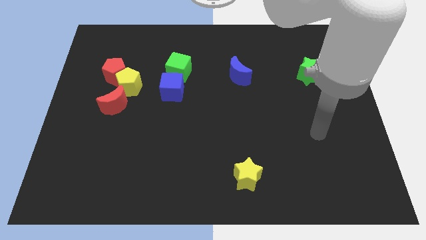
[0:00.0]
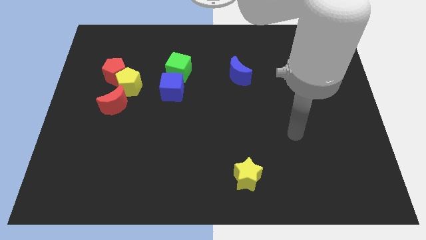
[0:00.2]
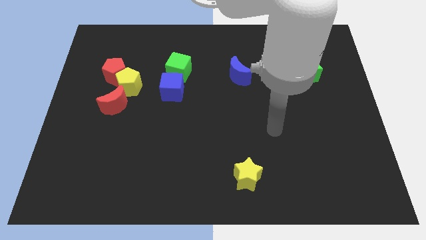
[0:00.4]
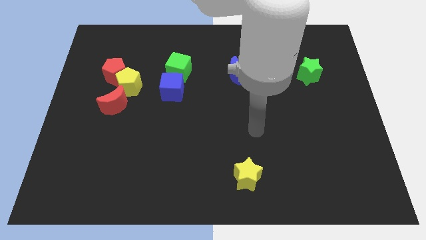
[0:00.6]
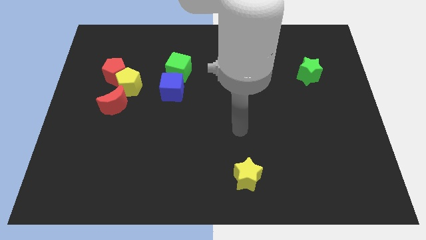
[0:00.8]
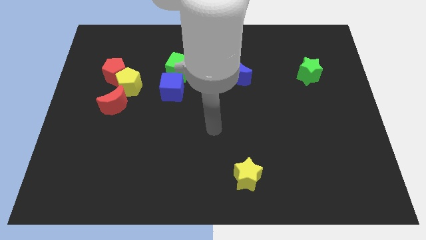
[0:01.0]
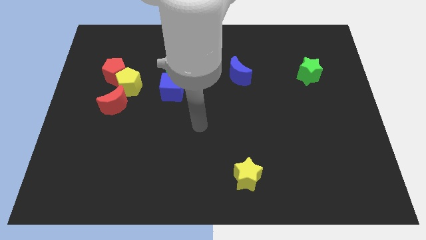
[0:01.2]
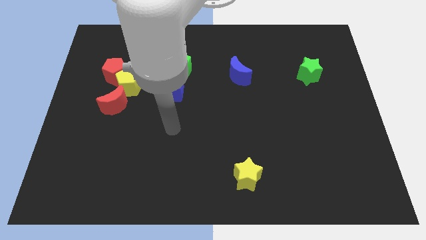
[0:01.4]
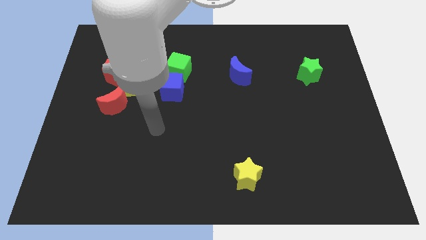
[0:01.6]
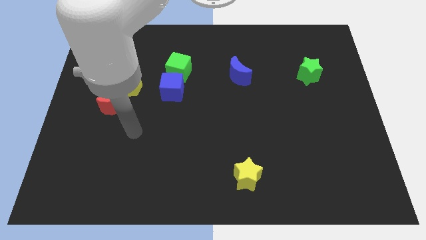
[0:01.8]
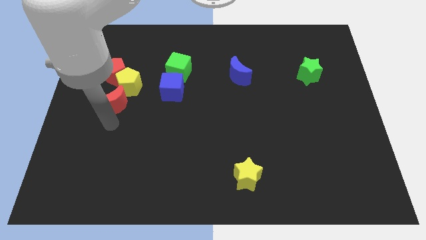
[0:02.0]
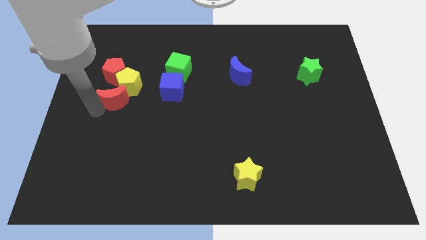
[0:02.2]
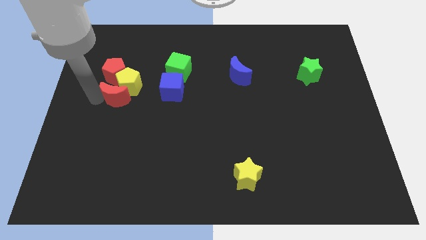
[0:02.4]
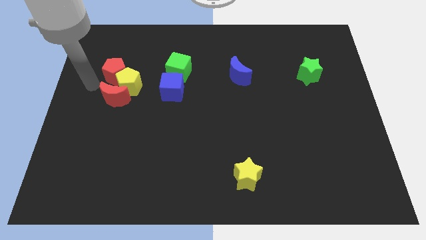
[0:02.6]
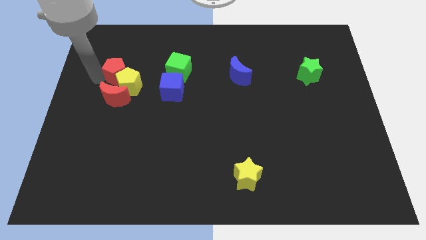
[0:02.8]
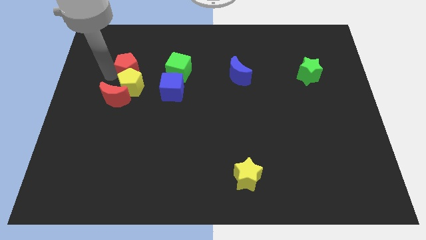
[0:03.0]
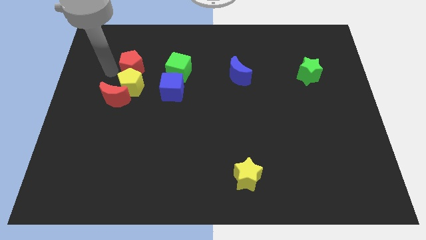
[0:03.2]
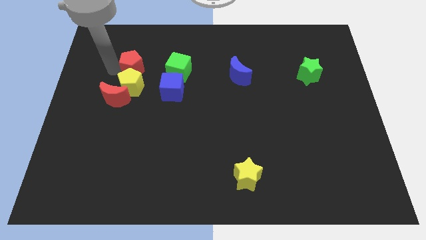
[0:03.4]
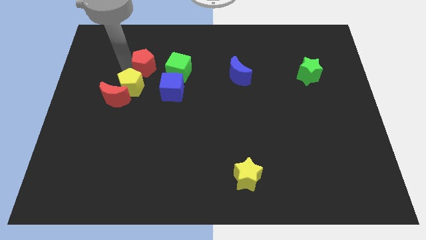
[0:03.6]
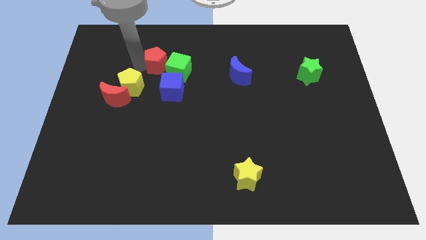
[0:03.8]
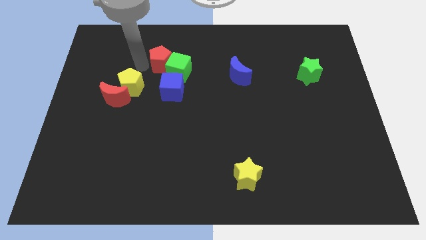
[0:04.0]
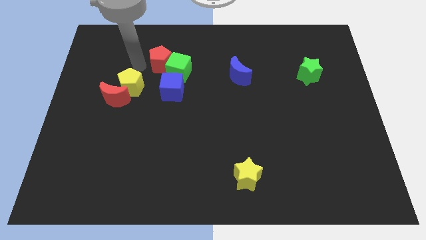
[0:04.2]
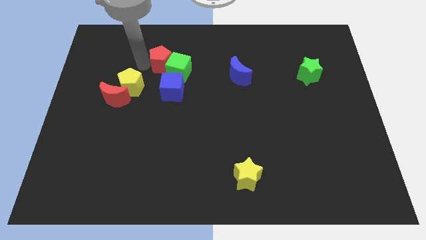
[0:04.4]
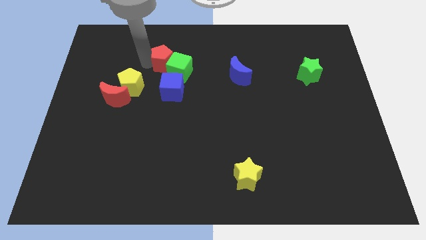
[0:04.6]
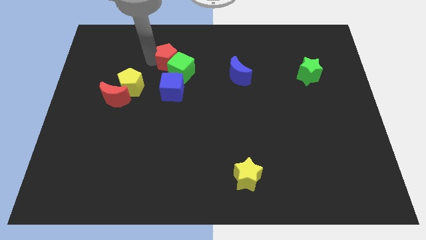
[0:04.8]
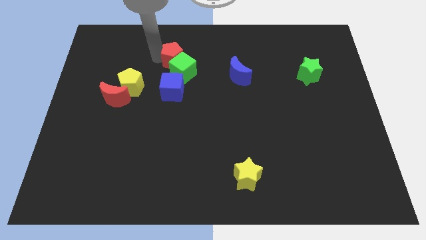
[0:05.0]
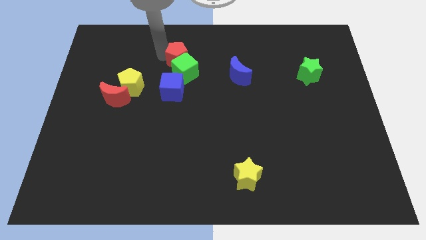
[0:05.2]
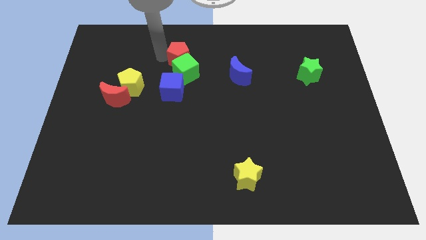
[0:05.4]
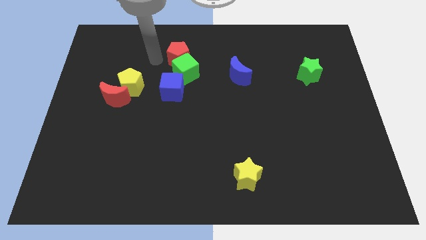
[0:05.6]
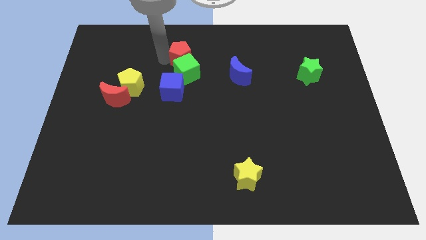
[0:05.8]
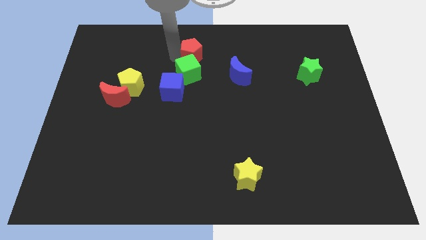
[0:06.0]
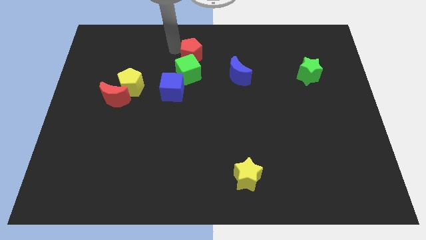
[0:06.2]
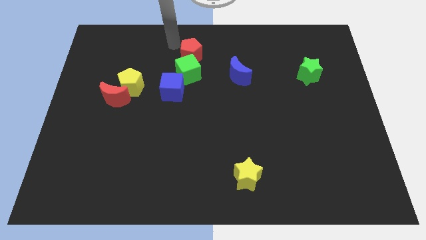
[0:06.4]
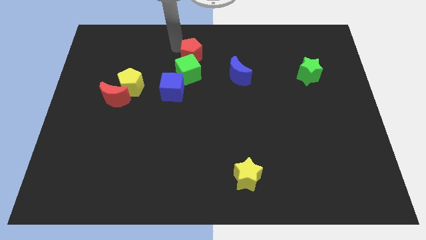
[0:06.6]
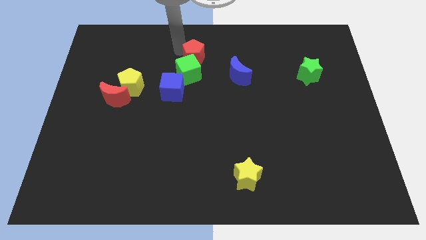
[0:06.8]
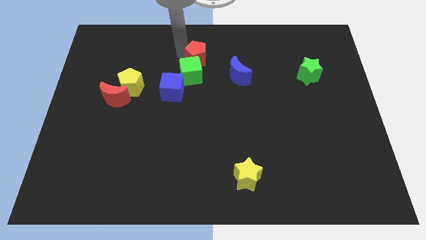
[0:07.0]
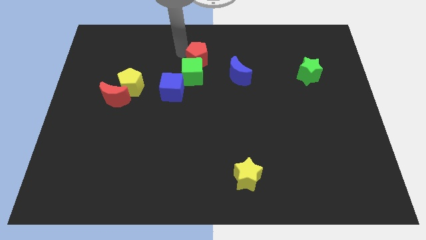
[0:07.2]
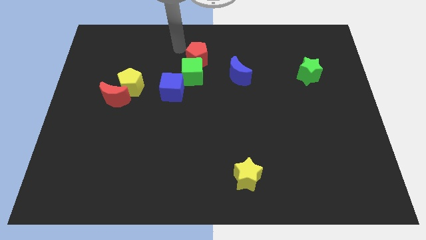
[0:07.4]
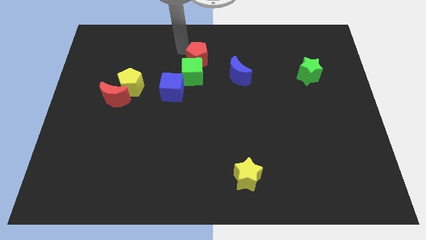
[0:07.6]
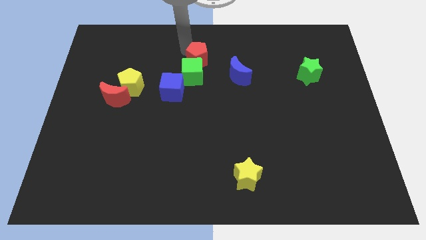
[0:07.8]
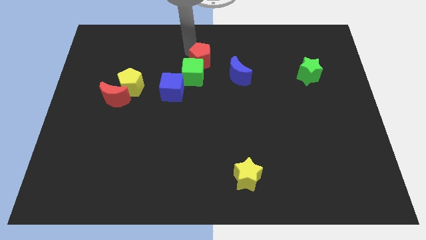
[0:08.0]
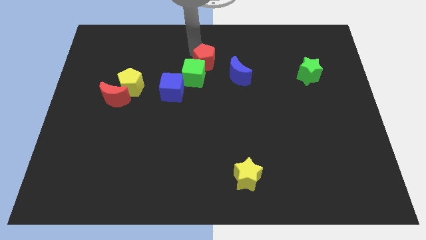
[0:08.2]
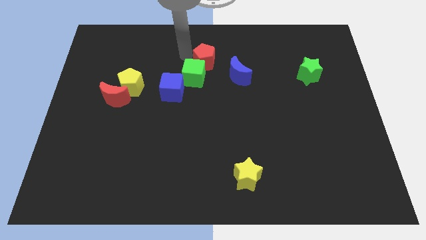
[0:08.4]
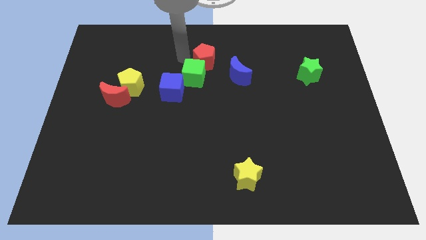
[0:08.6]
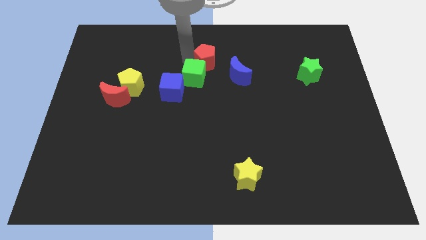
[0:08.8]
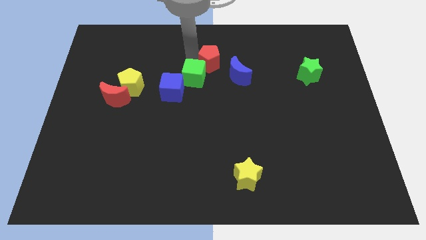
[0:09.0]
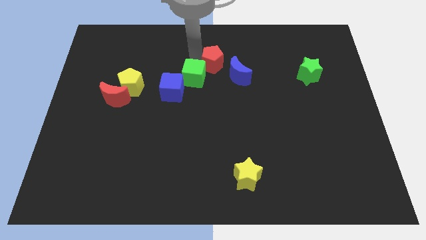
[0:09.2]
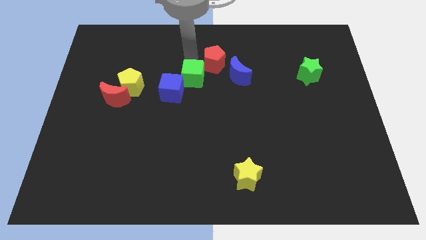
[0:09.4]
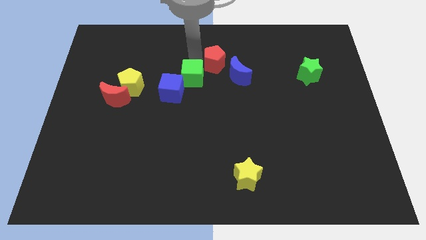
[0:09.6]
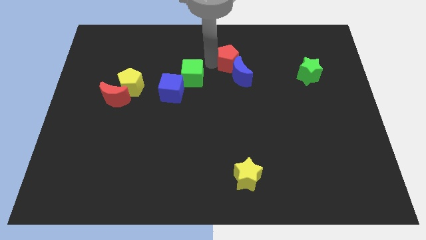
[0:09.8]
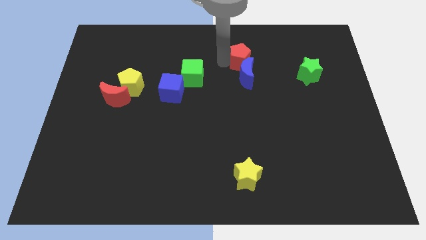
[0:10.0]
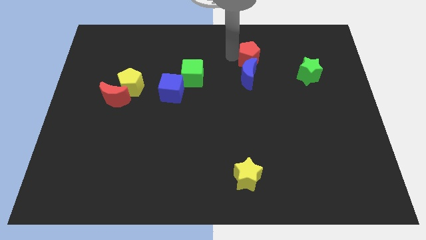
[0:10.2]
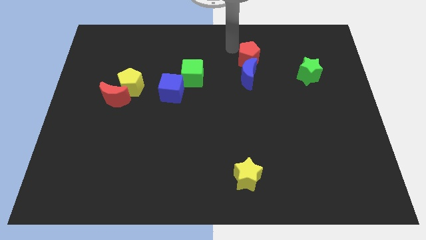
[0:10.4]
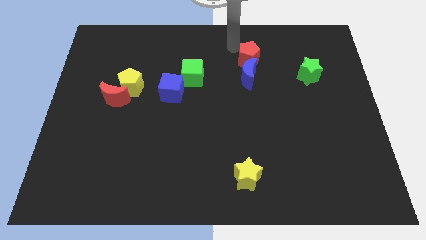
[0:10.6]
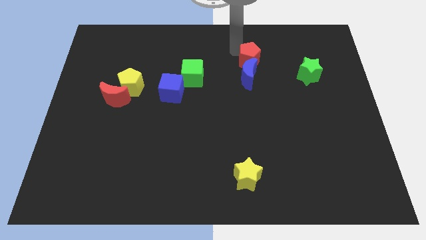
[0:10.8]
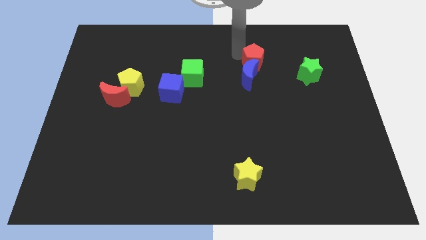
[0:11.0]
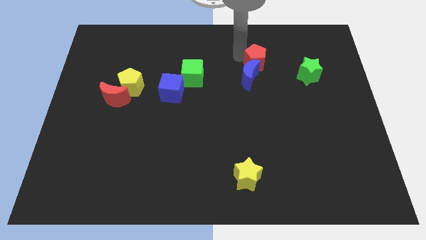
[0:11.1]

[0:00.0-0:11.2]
push the red pentagon left of the green star

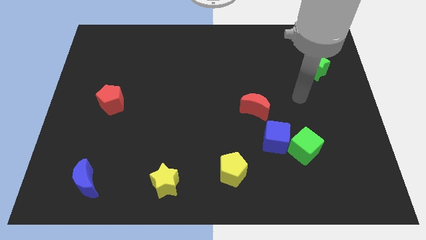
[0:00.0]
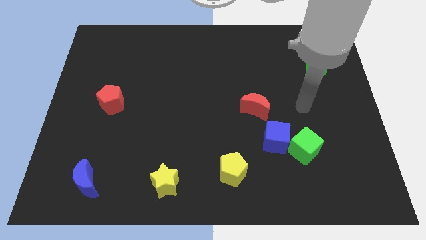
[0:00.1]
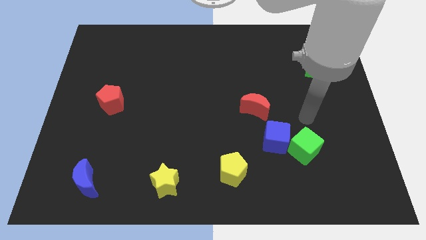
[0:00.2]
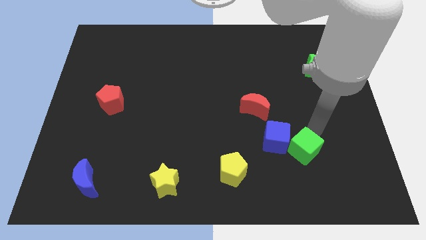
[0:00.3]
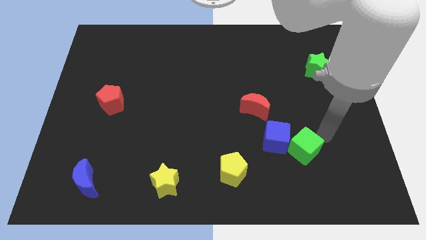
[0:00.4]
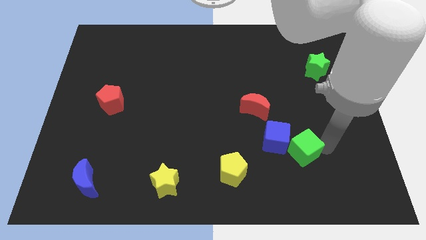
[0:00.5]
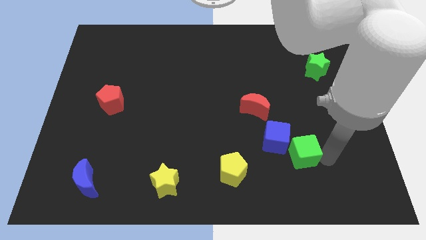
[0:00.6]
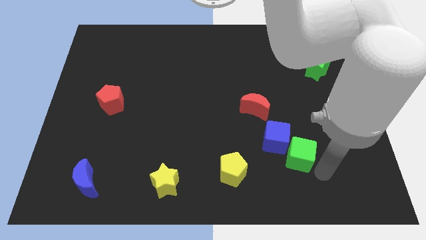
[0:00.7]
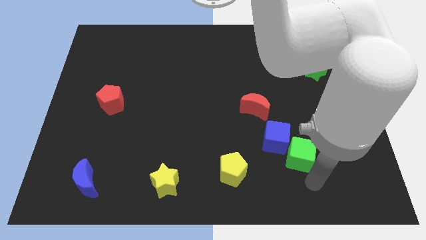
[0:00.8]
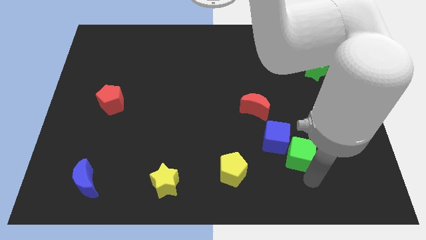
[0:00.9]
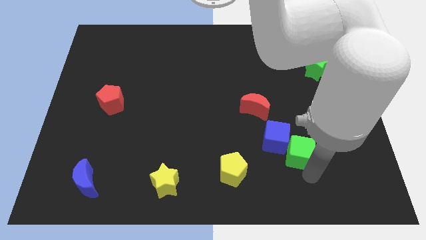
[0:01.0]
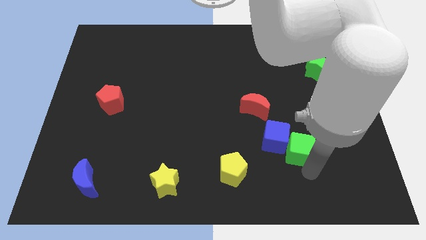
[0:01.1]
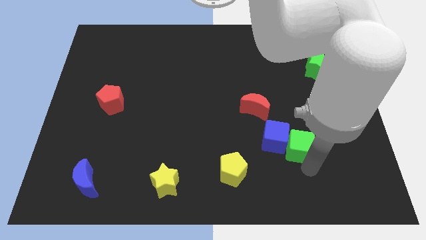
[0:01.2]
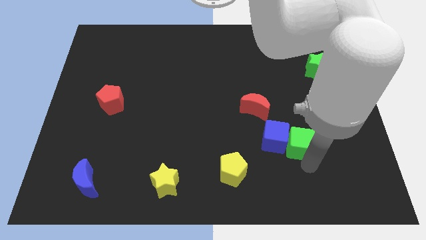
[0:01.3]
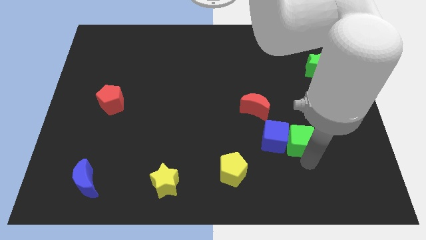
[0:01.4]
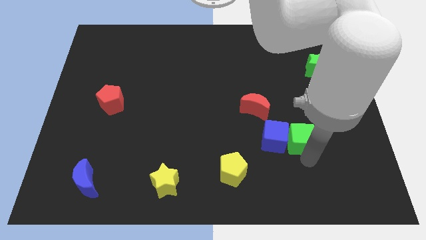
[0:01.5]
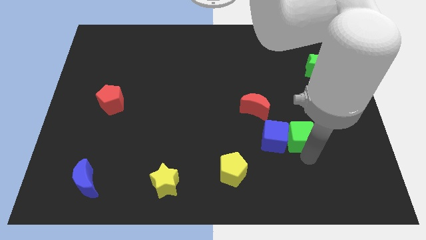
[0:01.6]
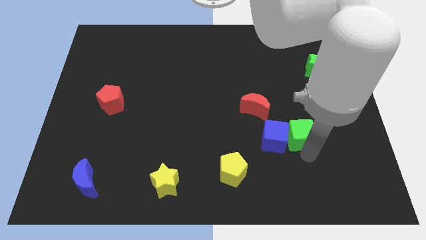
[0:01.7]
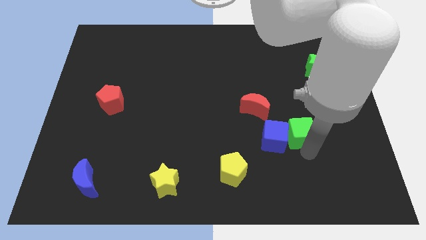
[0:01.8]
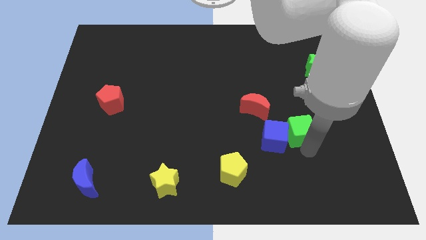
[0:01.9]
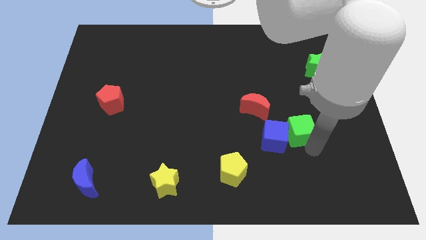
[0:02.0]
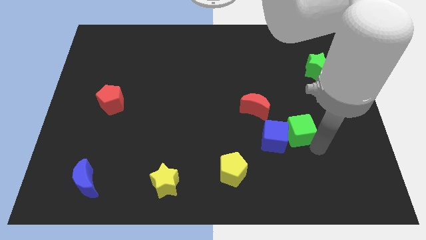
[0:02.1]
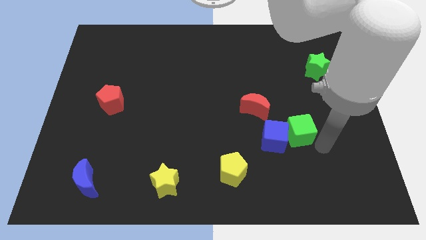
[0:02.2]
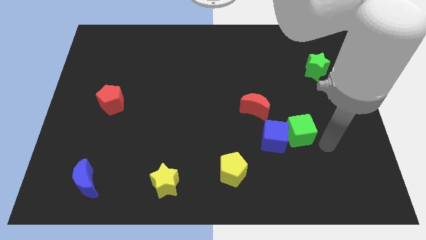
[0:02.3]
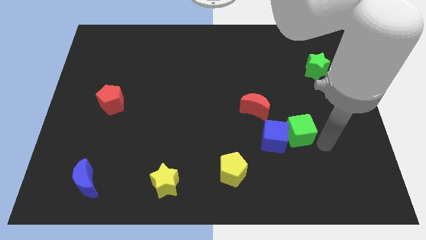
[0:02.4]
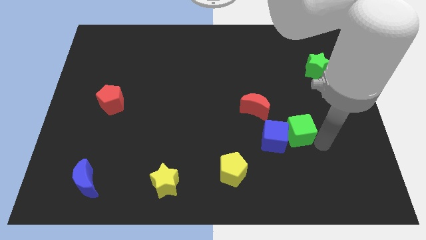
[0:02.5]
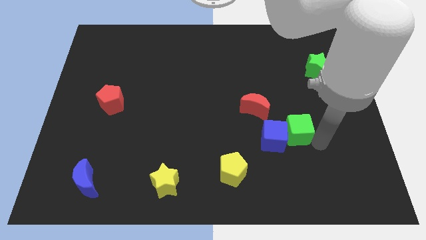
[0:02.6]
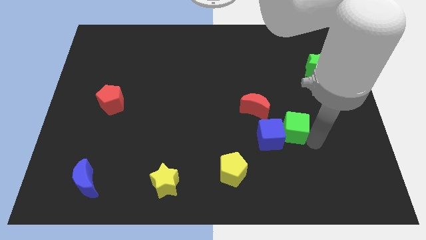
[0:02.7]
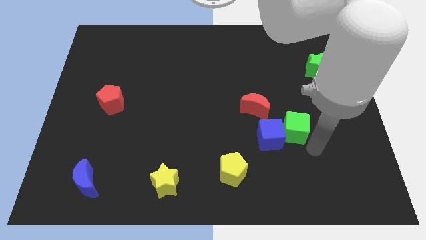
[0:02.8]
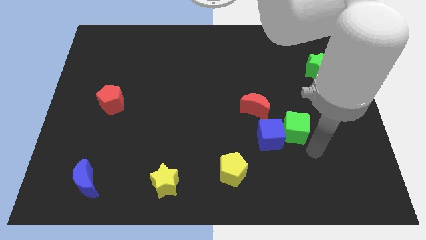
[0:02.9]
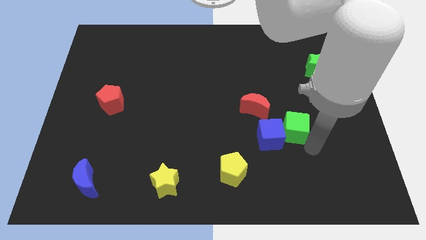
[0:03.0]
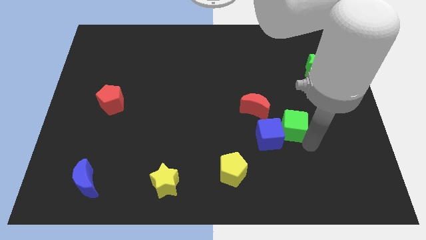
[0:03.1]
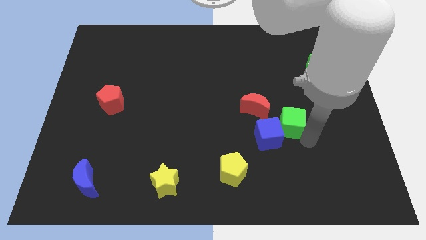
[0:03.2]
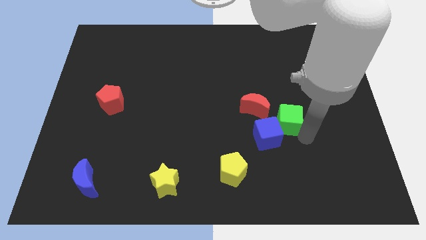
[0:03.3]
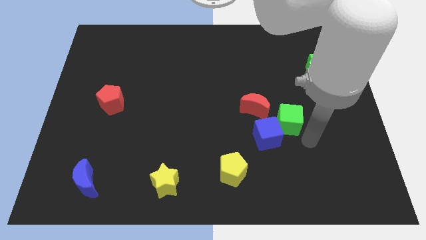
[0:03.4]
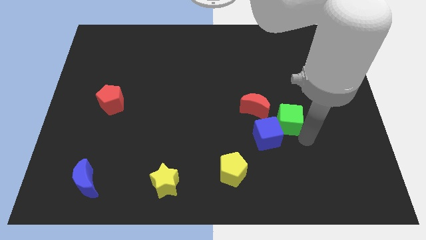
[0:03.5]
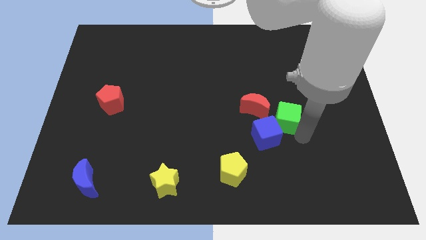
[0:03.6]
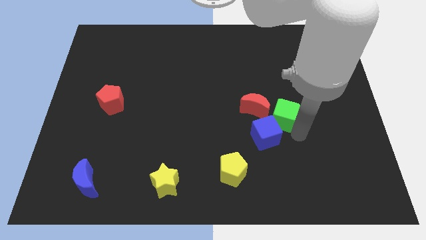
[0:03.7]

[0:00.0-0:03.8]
slide the green cube above the blue cube
